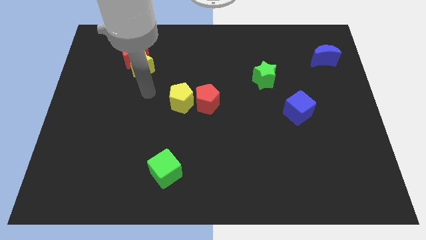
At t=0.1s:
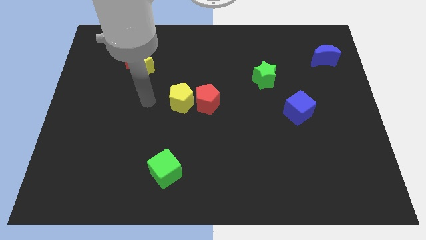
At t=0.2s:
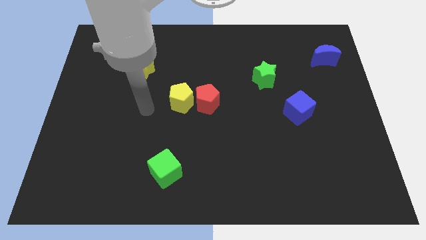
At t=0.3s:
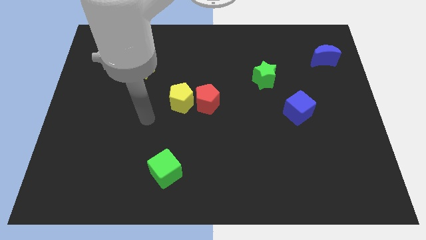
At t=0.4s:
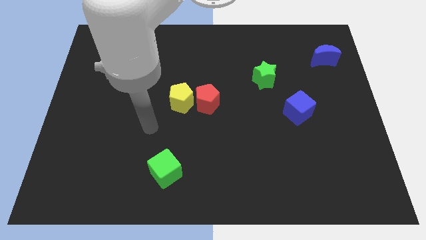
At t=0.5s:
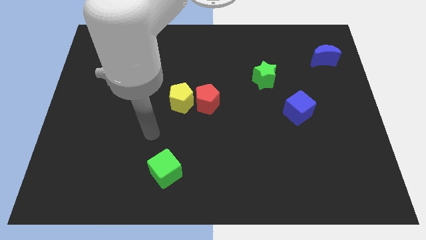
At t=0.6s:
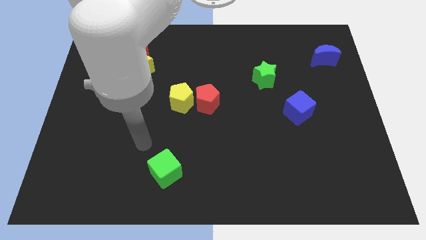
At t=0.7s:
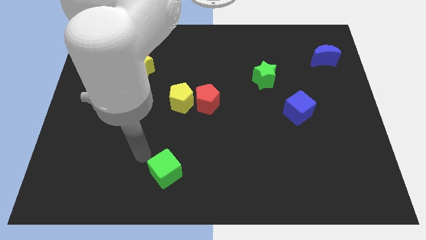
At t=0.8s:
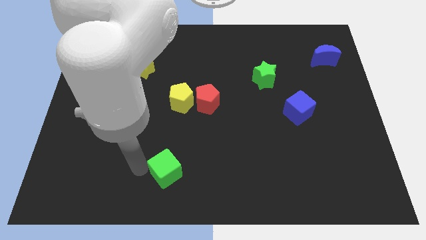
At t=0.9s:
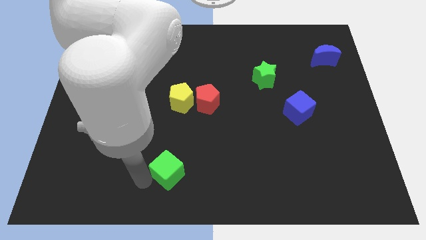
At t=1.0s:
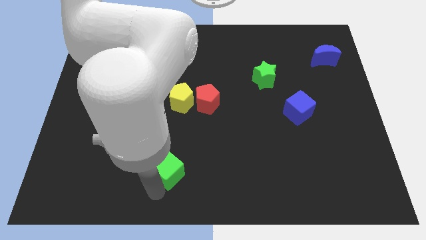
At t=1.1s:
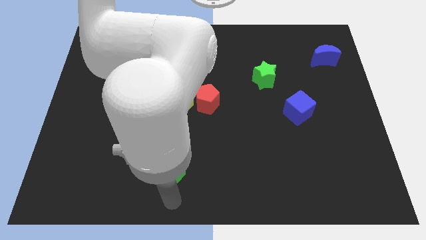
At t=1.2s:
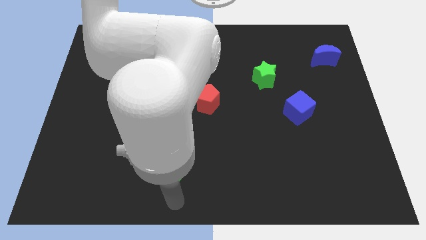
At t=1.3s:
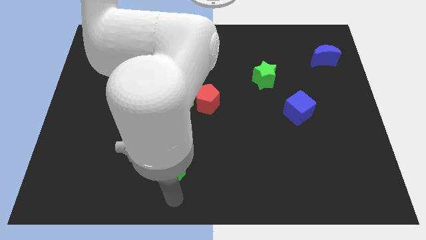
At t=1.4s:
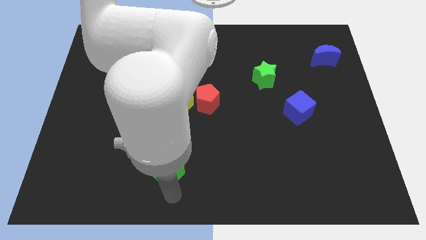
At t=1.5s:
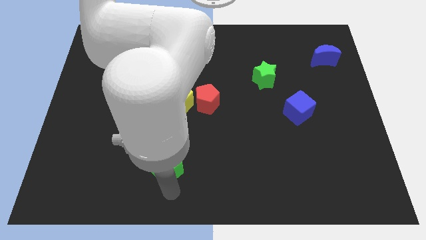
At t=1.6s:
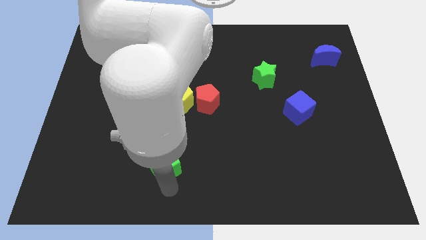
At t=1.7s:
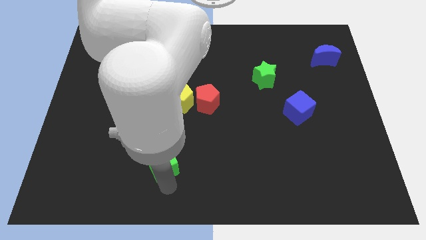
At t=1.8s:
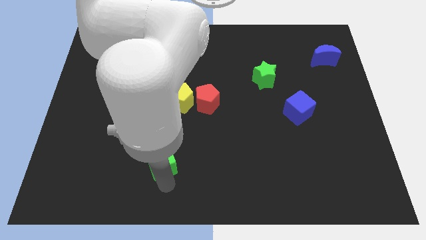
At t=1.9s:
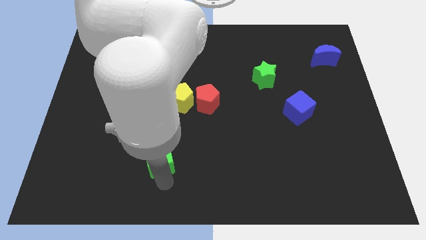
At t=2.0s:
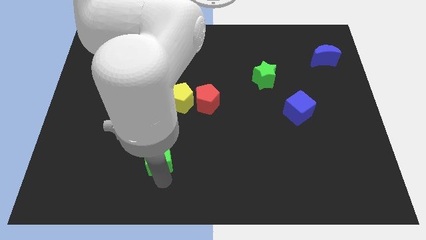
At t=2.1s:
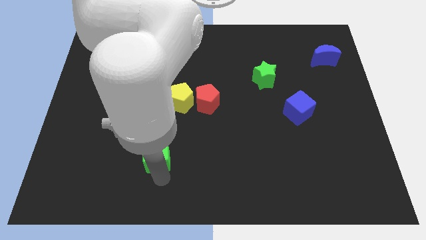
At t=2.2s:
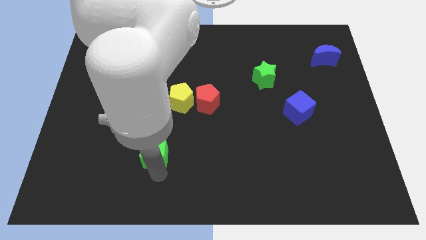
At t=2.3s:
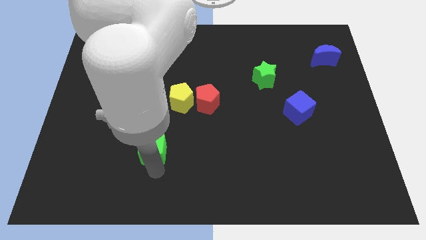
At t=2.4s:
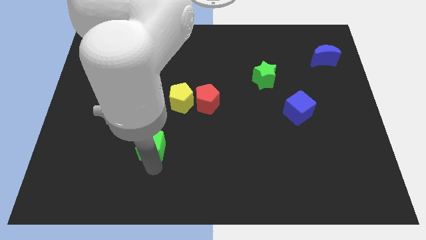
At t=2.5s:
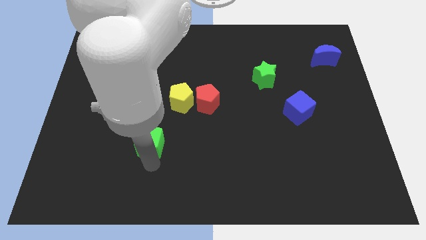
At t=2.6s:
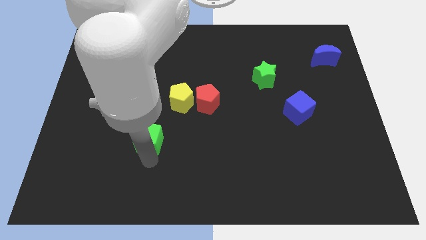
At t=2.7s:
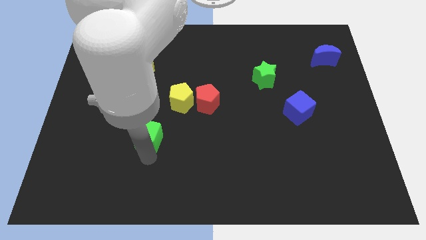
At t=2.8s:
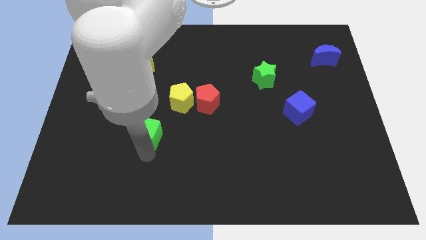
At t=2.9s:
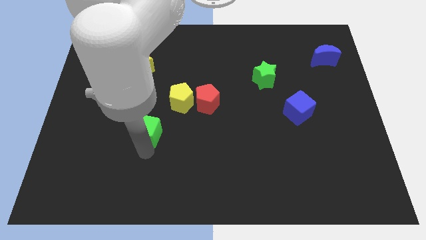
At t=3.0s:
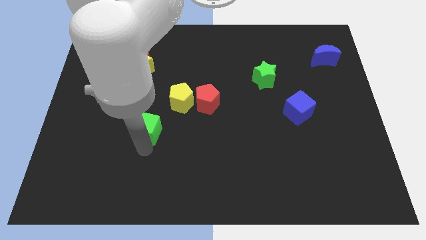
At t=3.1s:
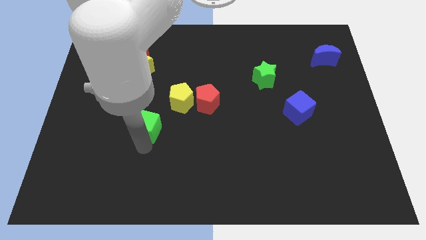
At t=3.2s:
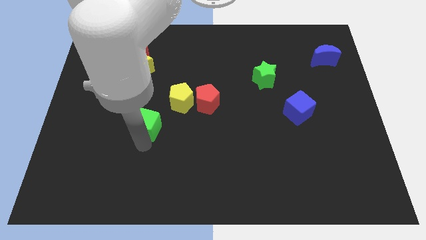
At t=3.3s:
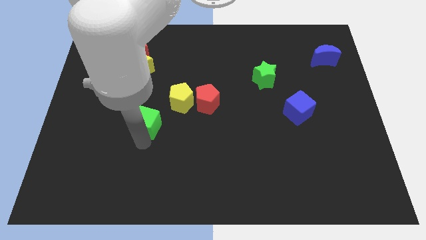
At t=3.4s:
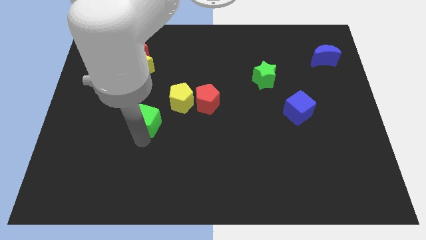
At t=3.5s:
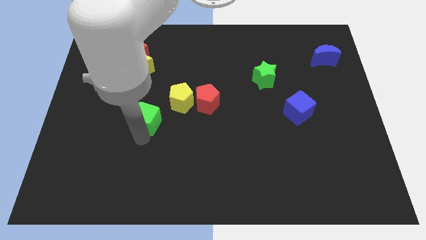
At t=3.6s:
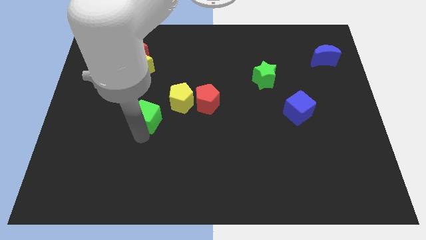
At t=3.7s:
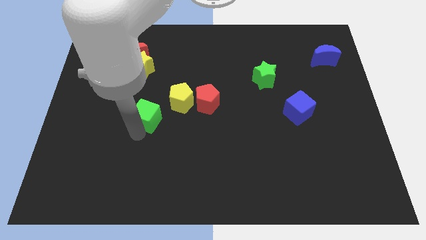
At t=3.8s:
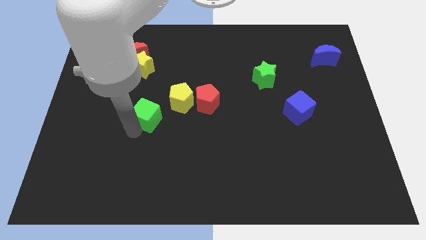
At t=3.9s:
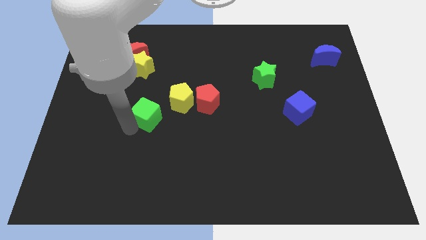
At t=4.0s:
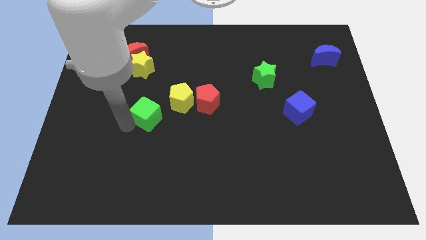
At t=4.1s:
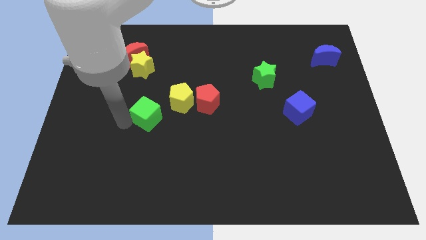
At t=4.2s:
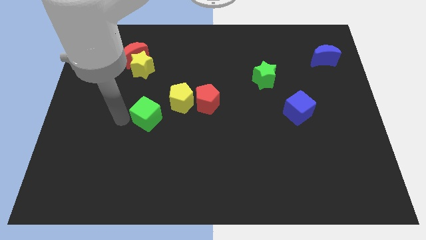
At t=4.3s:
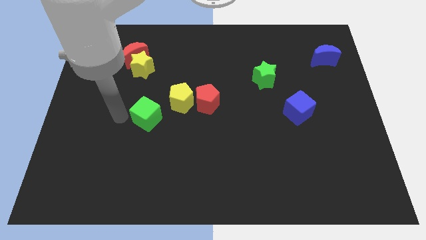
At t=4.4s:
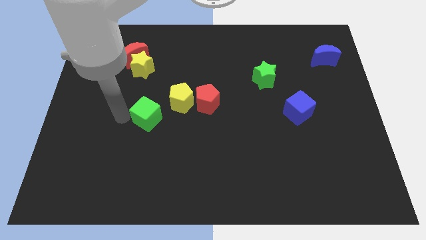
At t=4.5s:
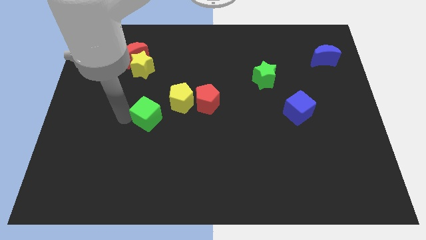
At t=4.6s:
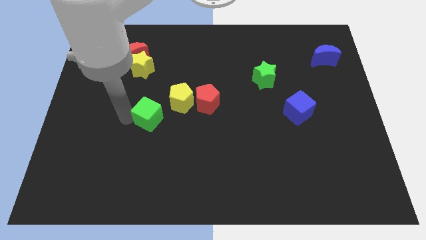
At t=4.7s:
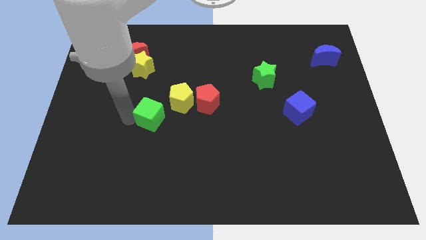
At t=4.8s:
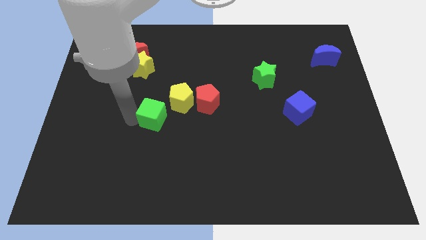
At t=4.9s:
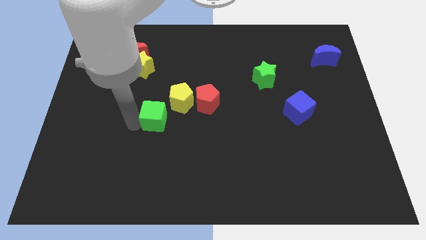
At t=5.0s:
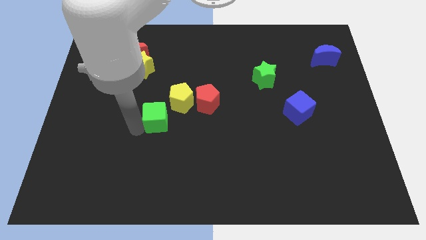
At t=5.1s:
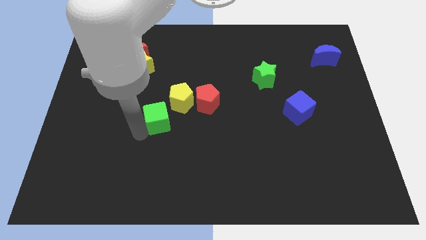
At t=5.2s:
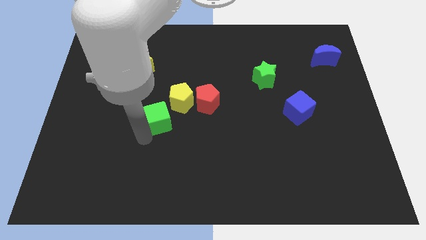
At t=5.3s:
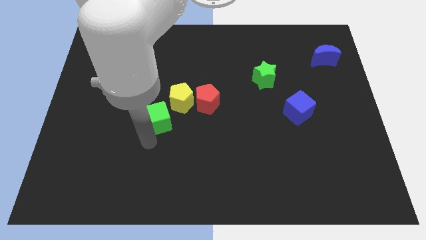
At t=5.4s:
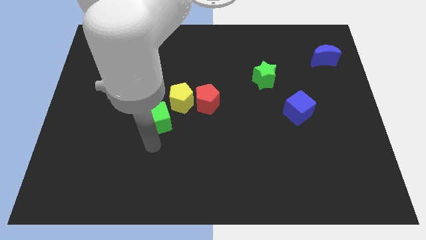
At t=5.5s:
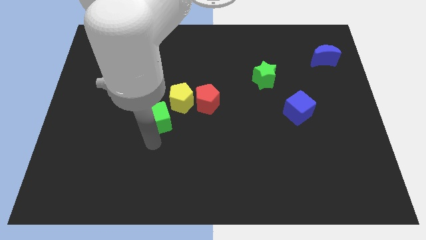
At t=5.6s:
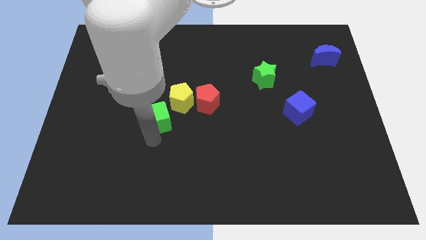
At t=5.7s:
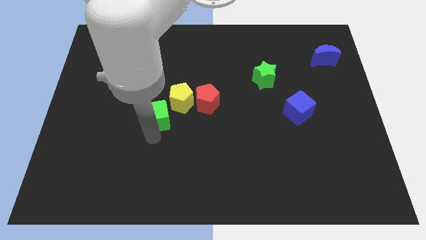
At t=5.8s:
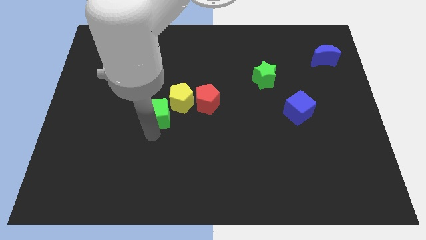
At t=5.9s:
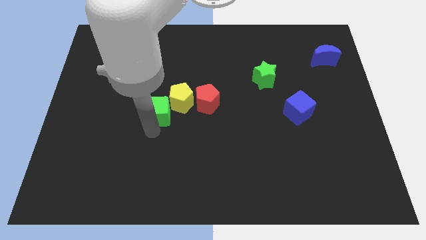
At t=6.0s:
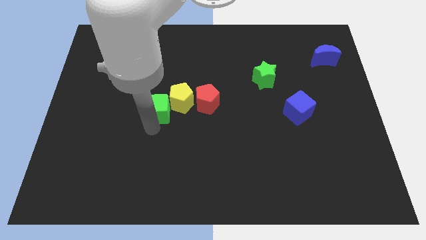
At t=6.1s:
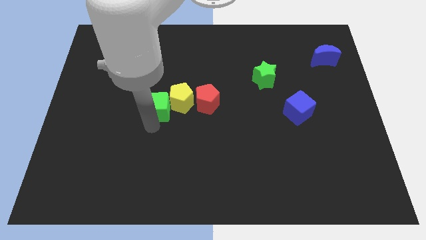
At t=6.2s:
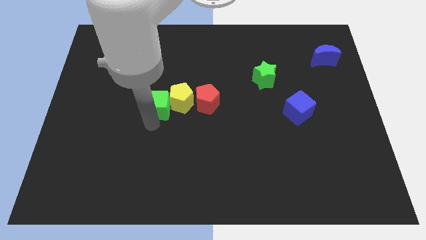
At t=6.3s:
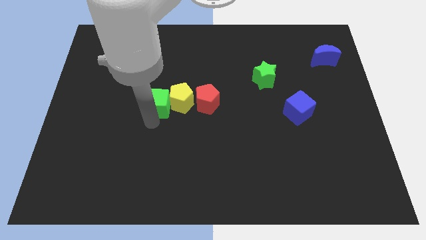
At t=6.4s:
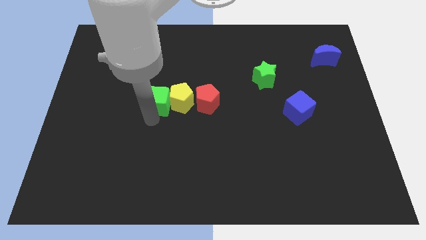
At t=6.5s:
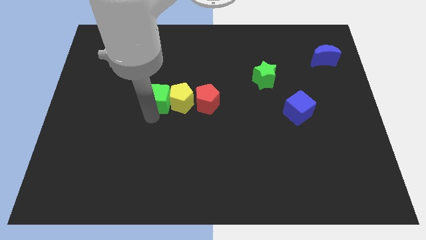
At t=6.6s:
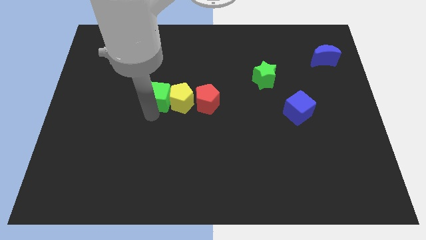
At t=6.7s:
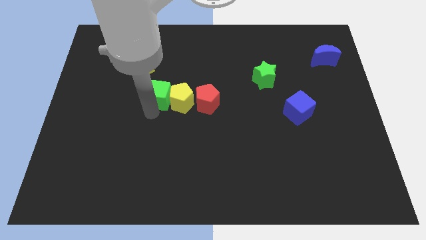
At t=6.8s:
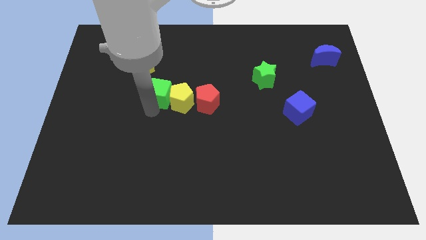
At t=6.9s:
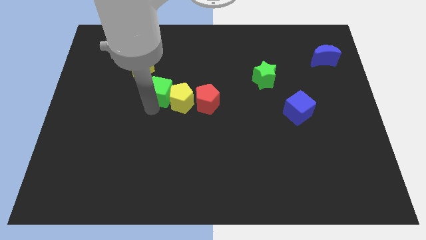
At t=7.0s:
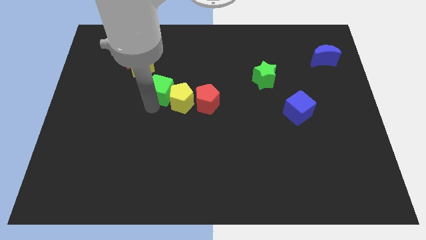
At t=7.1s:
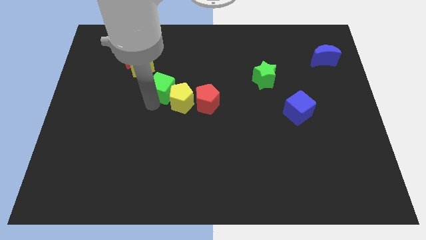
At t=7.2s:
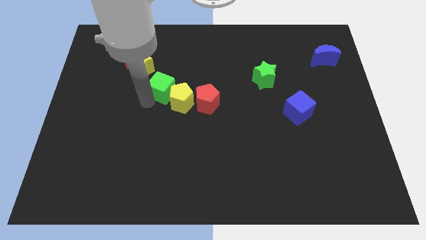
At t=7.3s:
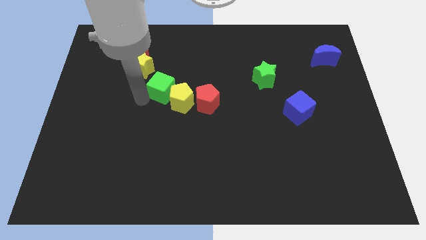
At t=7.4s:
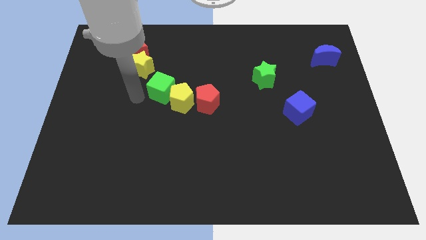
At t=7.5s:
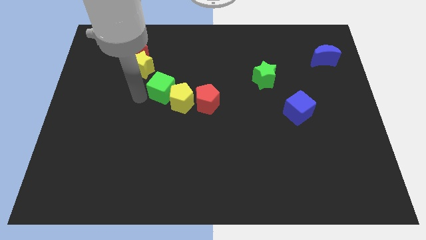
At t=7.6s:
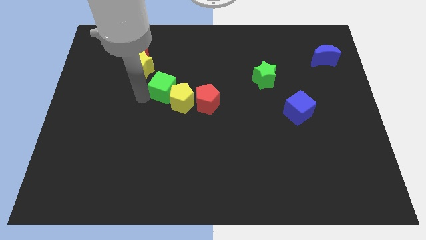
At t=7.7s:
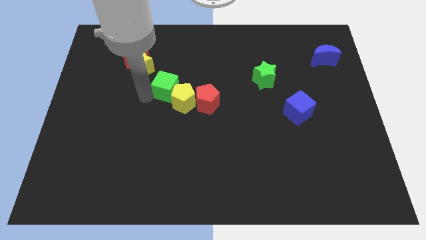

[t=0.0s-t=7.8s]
push the green cube to the top left side of the red pentagon
